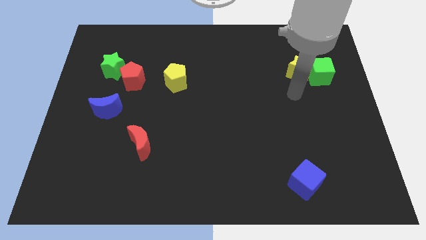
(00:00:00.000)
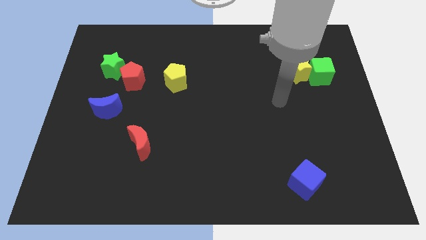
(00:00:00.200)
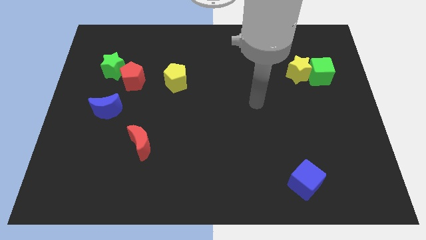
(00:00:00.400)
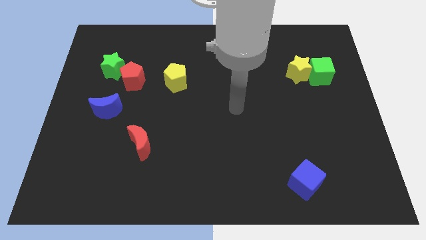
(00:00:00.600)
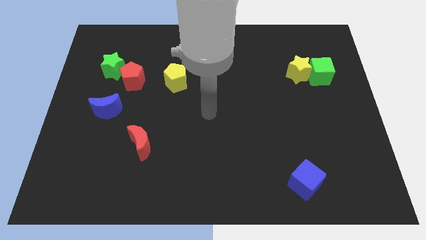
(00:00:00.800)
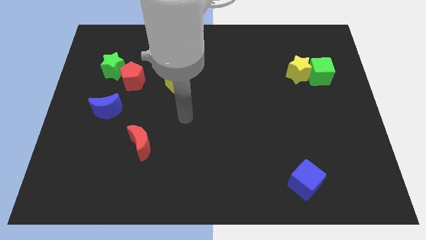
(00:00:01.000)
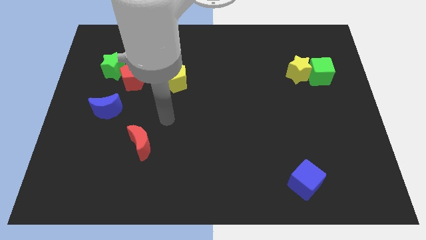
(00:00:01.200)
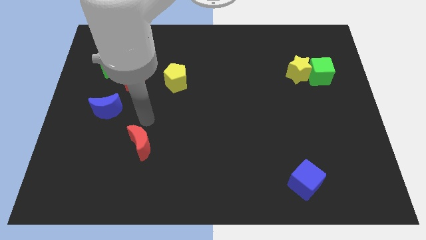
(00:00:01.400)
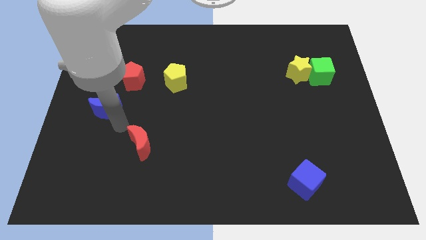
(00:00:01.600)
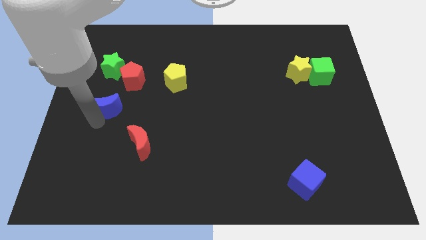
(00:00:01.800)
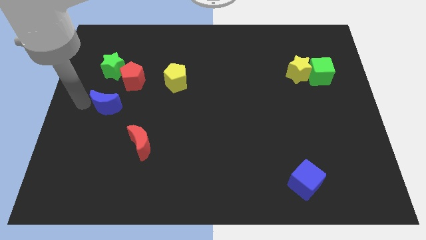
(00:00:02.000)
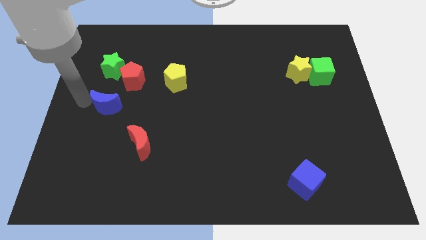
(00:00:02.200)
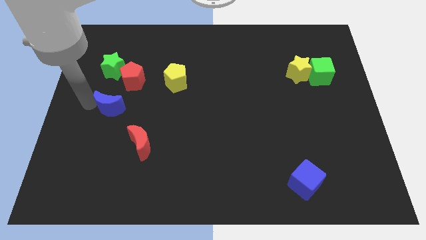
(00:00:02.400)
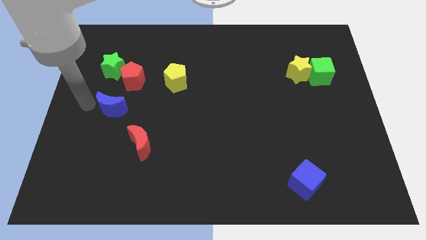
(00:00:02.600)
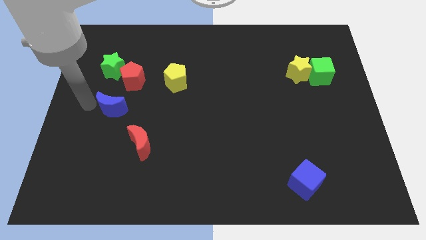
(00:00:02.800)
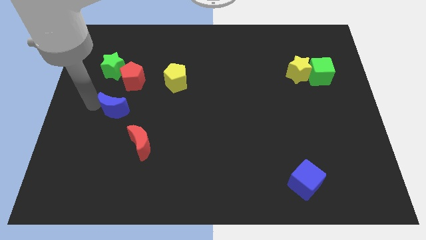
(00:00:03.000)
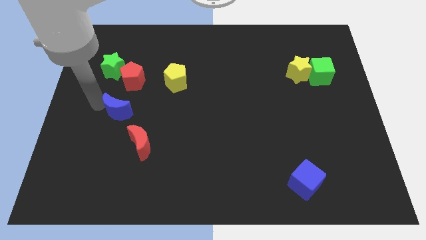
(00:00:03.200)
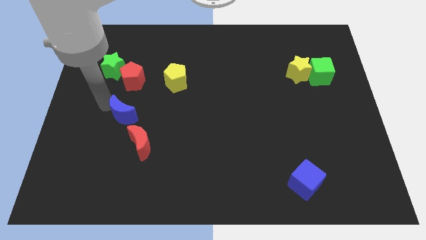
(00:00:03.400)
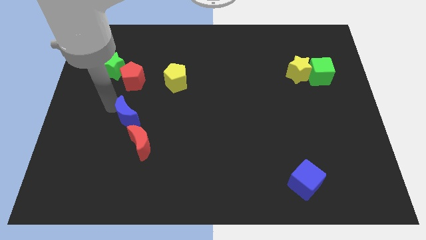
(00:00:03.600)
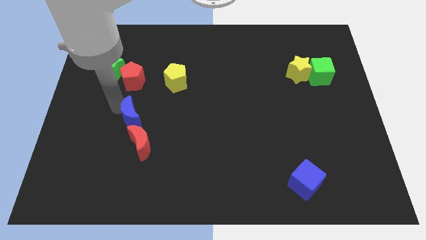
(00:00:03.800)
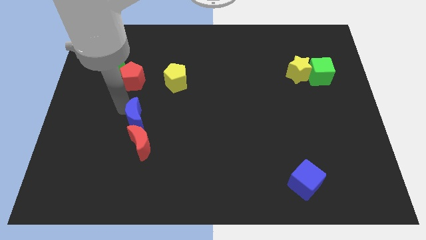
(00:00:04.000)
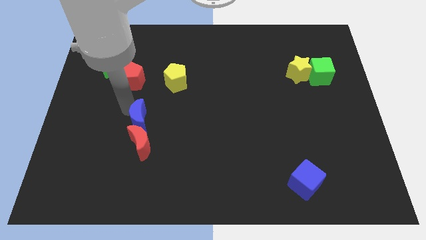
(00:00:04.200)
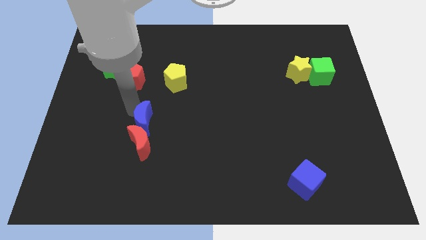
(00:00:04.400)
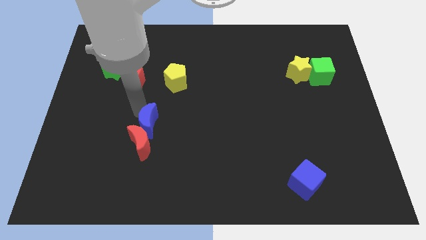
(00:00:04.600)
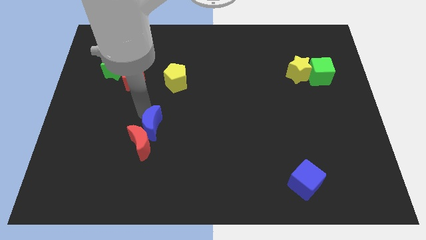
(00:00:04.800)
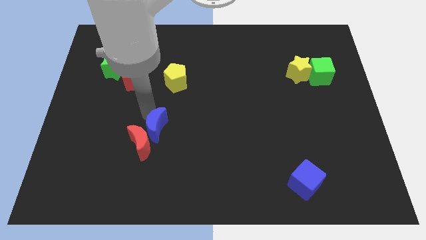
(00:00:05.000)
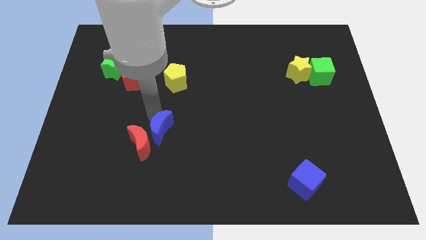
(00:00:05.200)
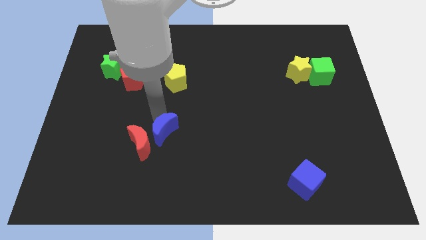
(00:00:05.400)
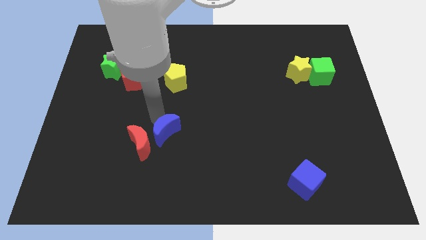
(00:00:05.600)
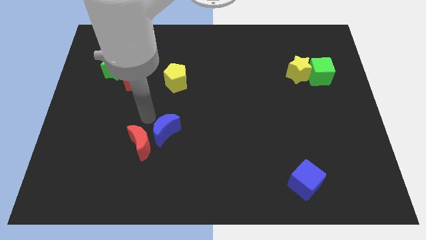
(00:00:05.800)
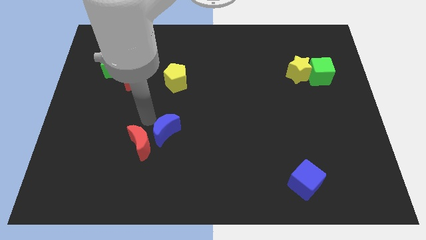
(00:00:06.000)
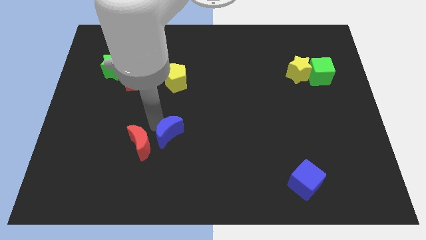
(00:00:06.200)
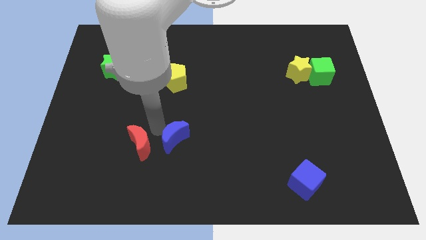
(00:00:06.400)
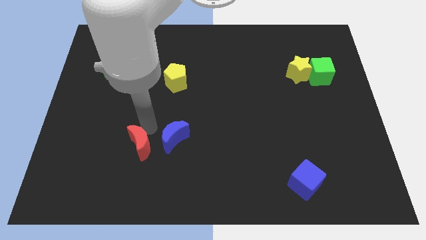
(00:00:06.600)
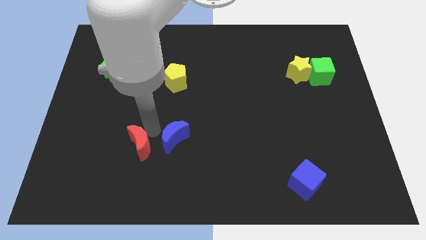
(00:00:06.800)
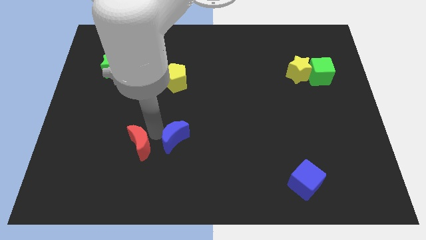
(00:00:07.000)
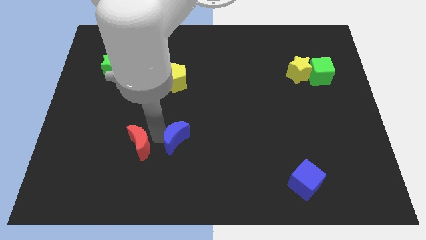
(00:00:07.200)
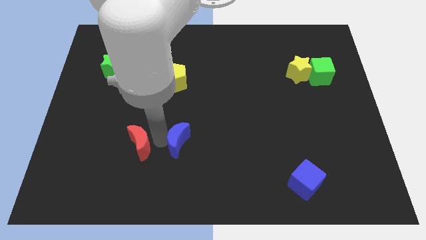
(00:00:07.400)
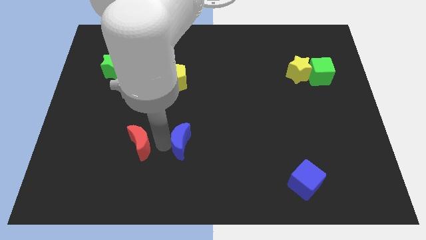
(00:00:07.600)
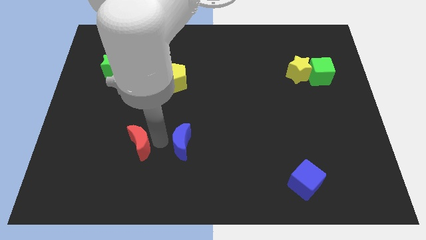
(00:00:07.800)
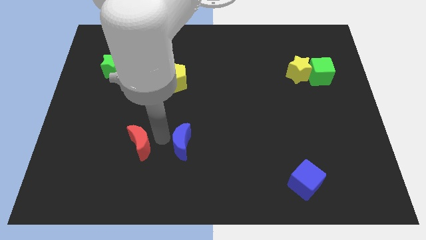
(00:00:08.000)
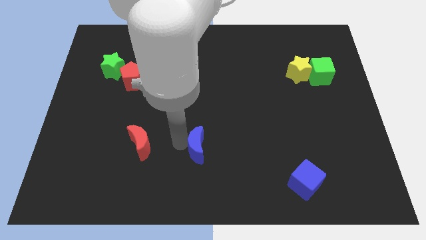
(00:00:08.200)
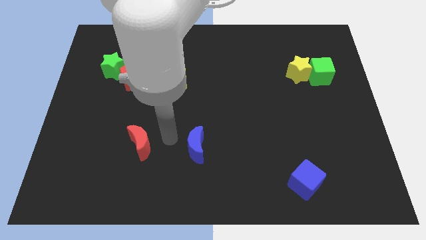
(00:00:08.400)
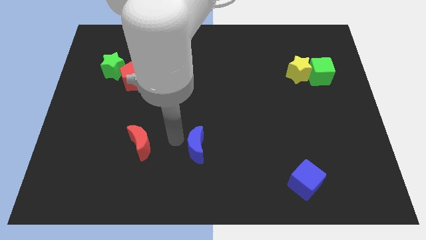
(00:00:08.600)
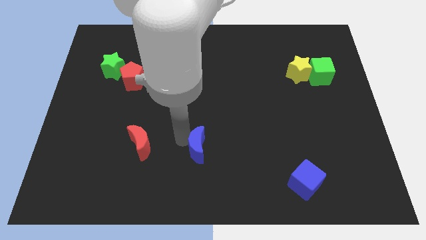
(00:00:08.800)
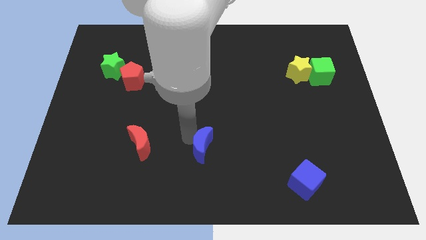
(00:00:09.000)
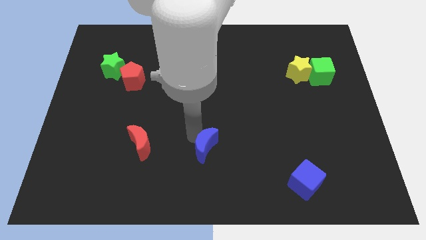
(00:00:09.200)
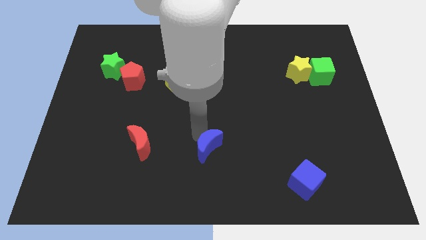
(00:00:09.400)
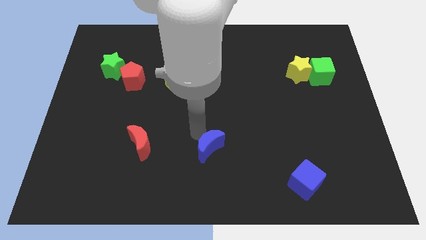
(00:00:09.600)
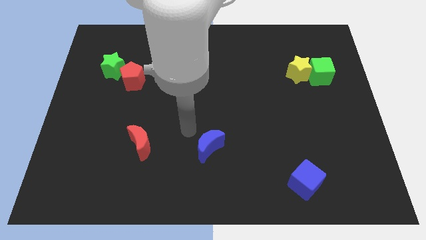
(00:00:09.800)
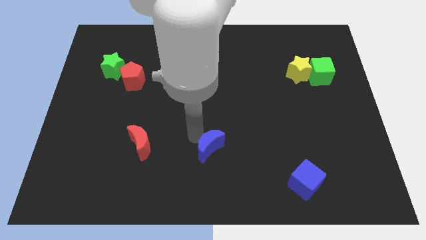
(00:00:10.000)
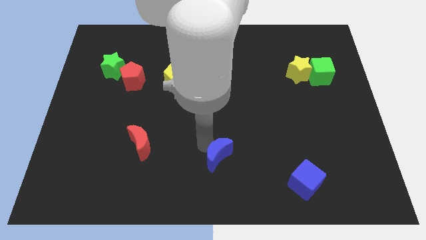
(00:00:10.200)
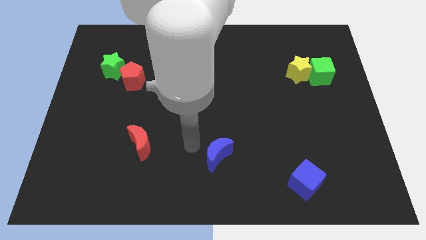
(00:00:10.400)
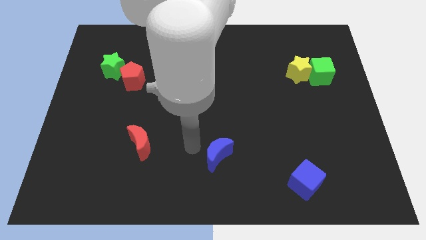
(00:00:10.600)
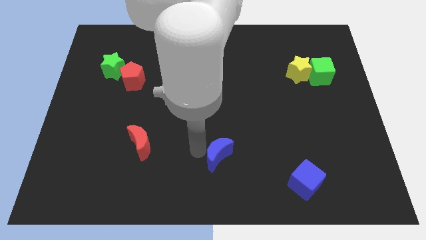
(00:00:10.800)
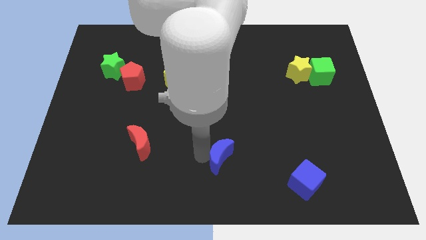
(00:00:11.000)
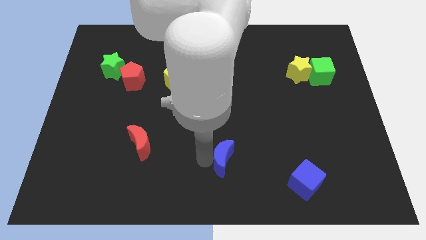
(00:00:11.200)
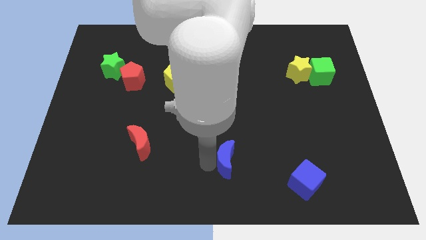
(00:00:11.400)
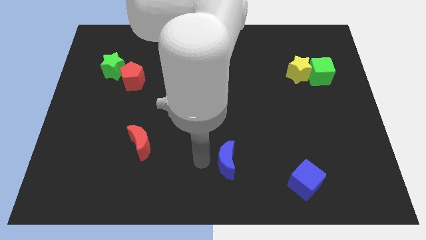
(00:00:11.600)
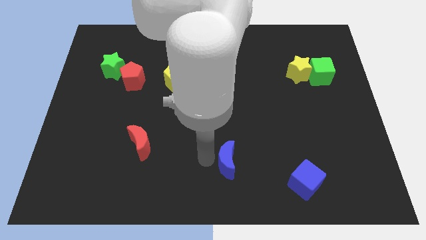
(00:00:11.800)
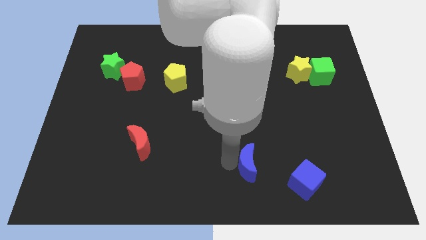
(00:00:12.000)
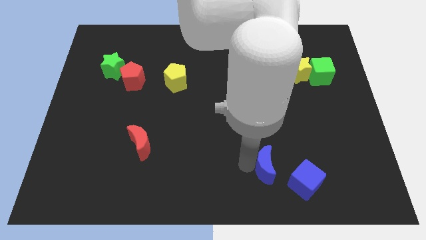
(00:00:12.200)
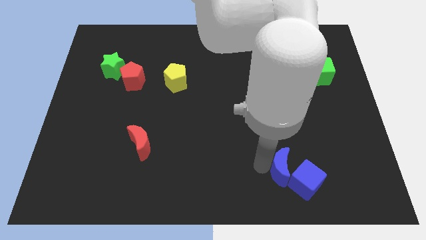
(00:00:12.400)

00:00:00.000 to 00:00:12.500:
slide the blue moon close to the blue cube

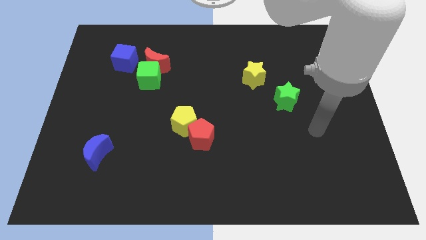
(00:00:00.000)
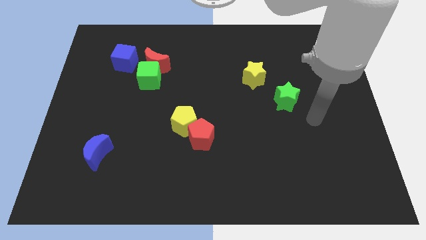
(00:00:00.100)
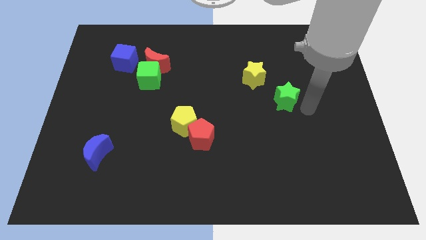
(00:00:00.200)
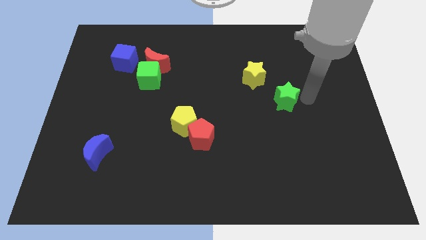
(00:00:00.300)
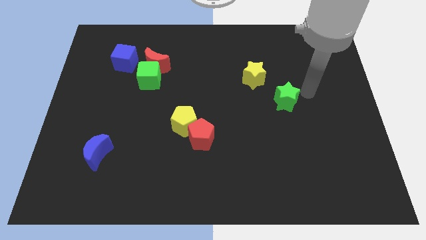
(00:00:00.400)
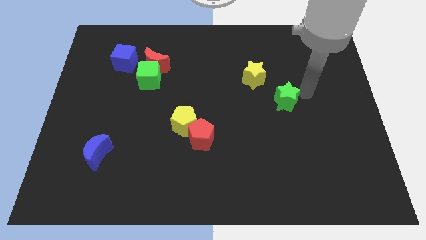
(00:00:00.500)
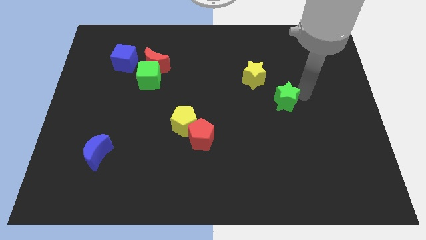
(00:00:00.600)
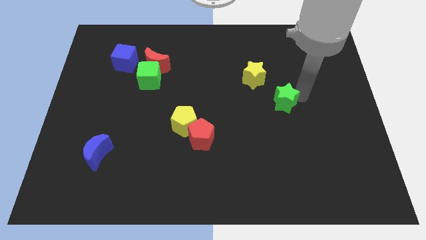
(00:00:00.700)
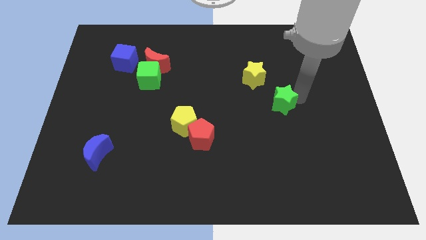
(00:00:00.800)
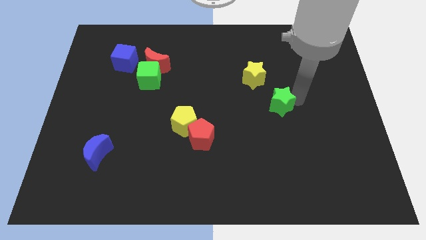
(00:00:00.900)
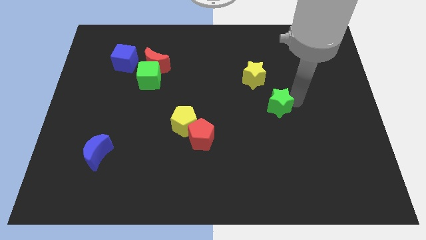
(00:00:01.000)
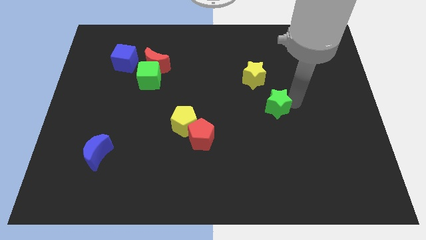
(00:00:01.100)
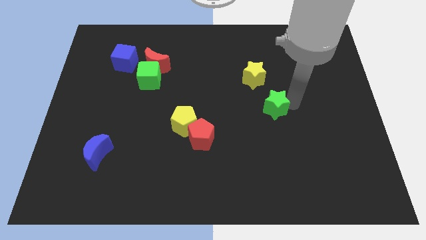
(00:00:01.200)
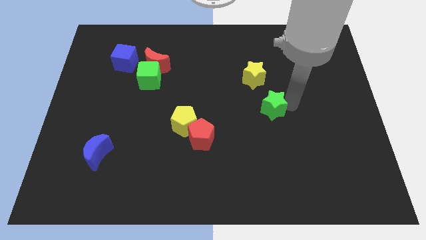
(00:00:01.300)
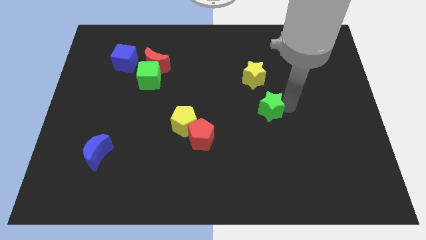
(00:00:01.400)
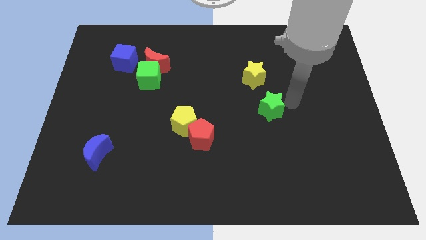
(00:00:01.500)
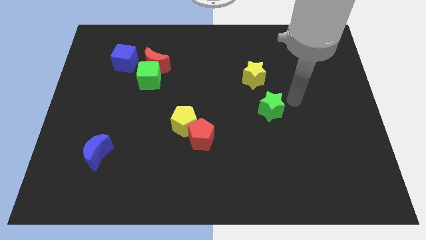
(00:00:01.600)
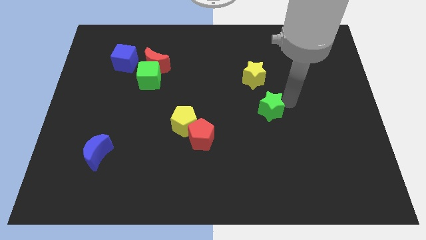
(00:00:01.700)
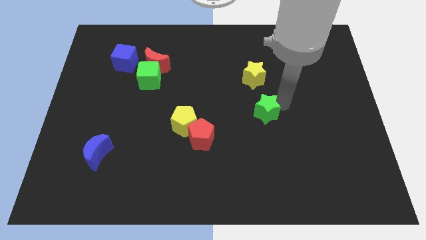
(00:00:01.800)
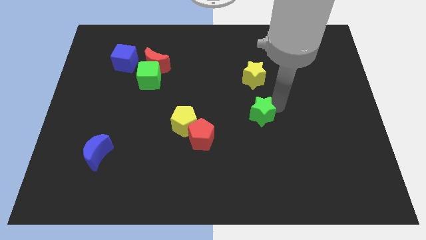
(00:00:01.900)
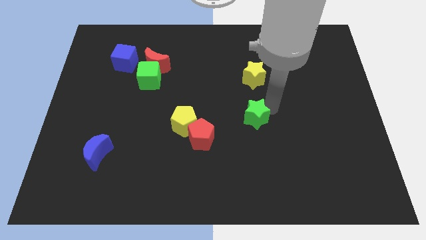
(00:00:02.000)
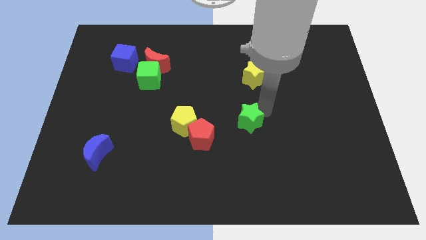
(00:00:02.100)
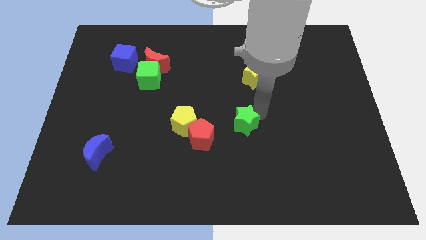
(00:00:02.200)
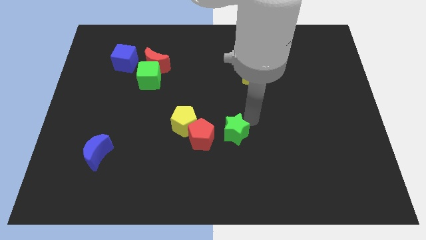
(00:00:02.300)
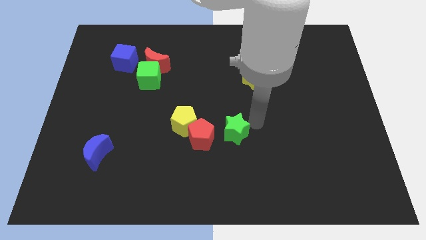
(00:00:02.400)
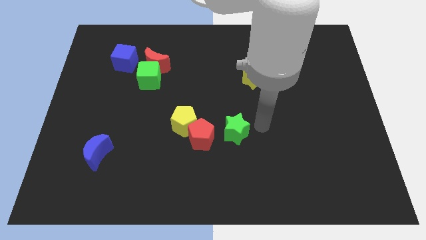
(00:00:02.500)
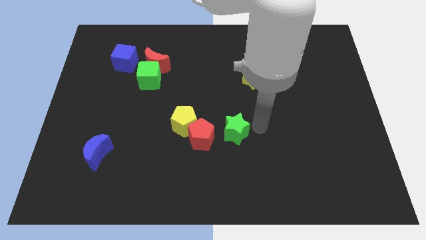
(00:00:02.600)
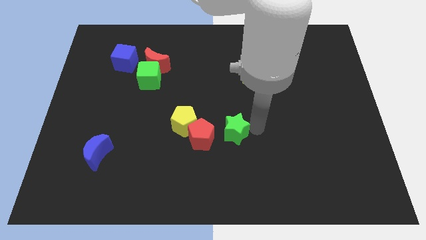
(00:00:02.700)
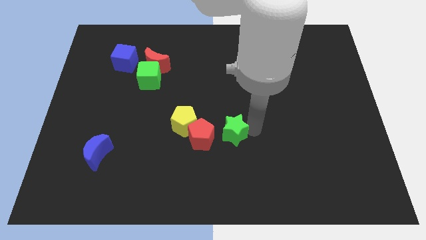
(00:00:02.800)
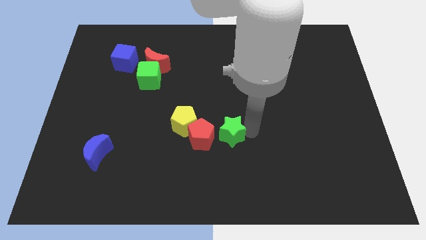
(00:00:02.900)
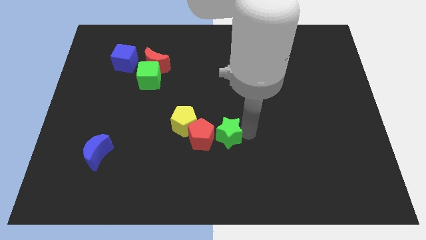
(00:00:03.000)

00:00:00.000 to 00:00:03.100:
move the green star to the red pentagon
